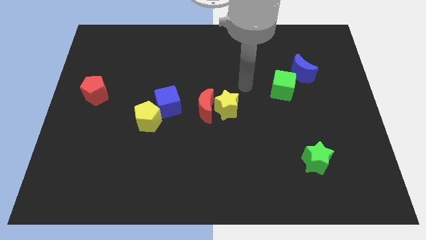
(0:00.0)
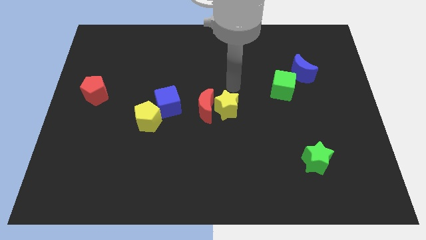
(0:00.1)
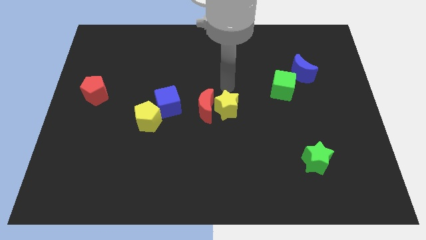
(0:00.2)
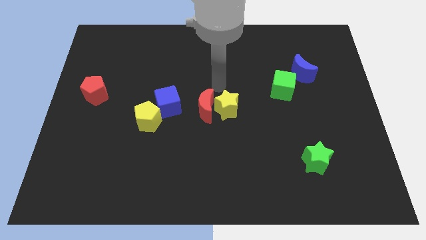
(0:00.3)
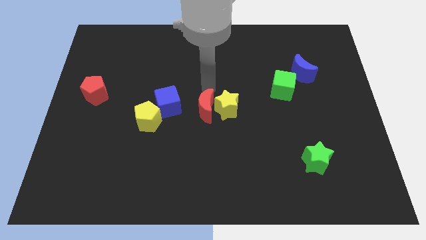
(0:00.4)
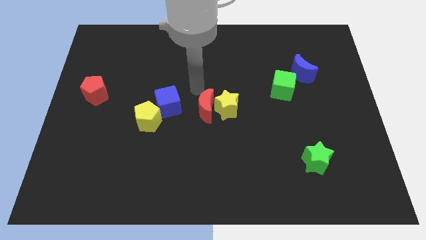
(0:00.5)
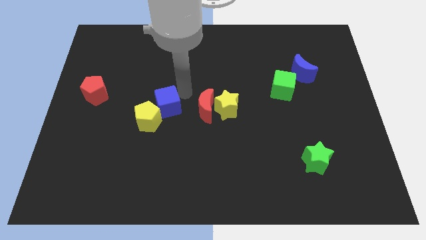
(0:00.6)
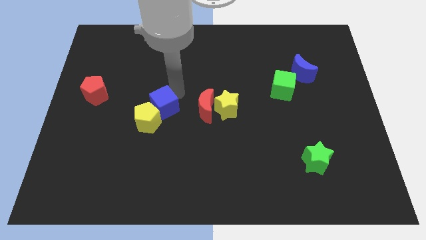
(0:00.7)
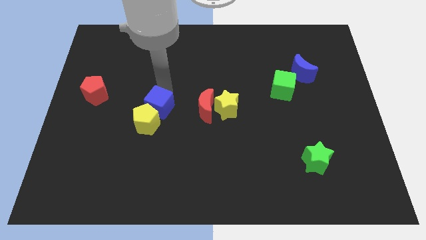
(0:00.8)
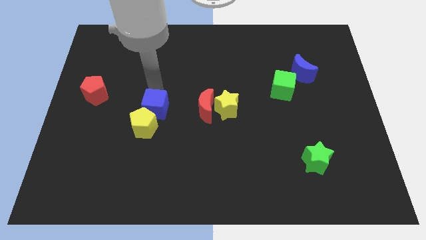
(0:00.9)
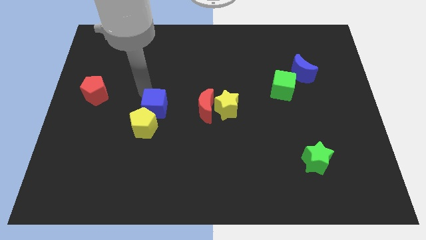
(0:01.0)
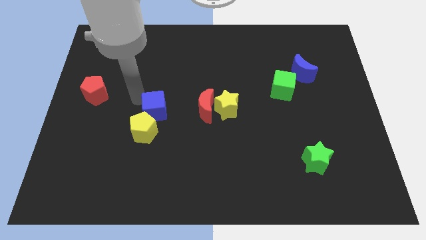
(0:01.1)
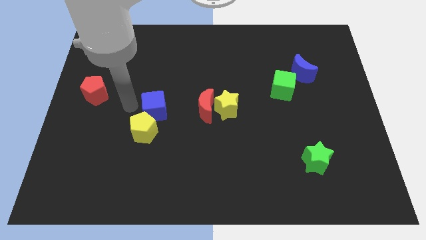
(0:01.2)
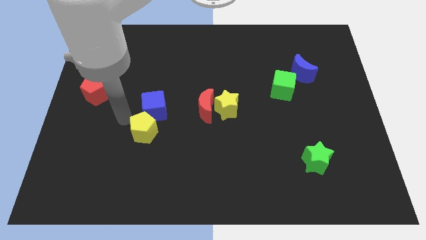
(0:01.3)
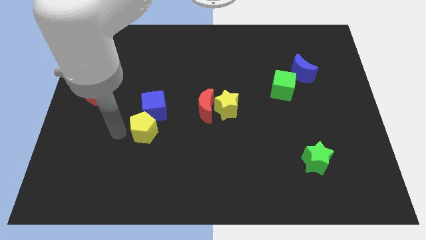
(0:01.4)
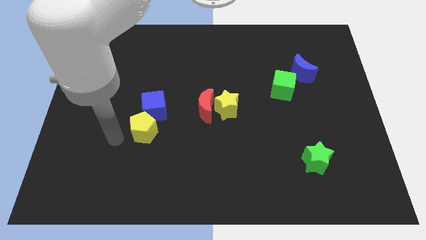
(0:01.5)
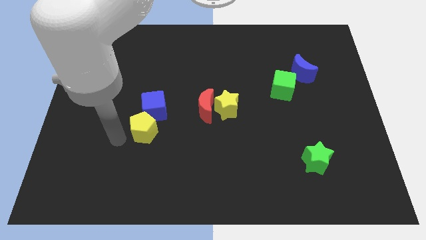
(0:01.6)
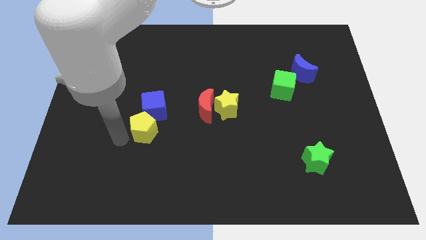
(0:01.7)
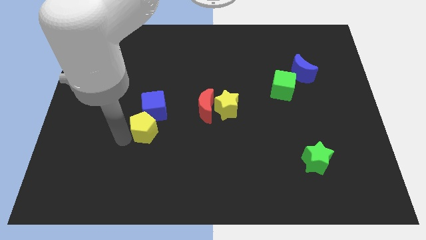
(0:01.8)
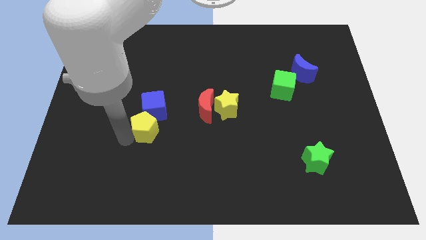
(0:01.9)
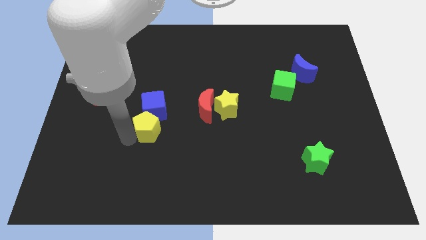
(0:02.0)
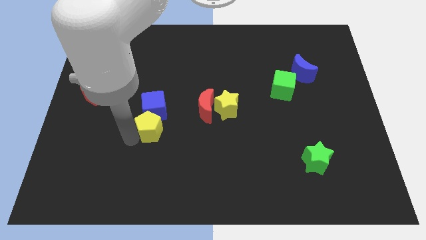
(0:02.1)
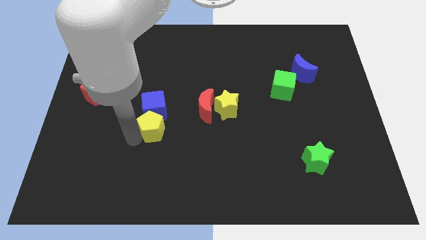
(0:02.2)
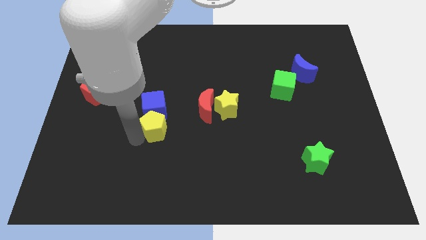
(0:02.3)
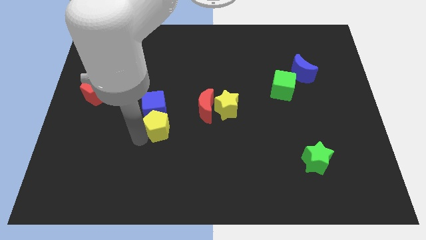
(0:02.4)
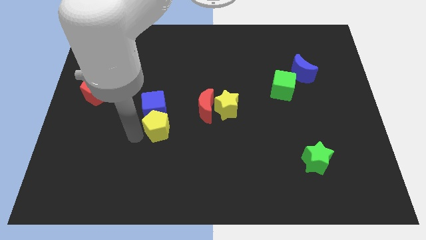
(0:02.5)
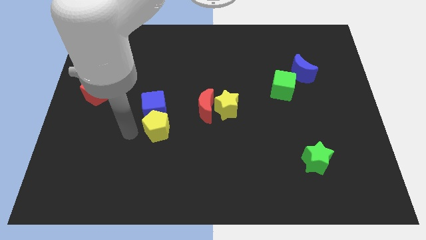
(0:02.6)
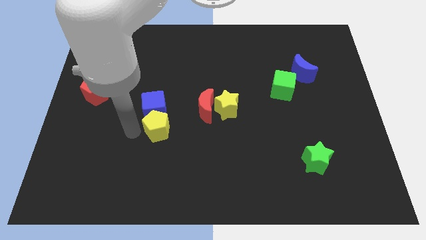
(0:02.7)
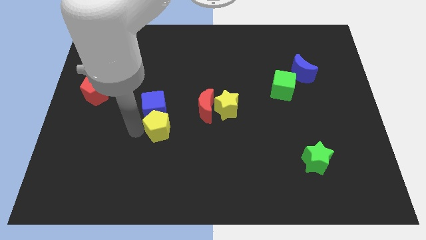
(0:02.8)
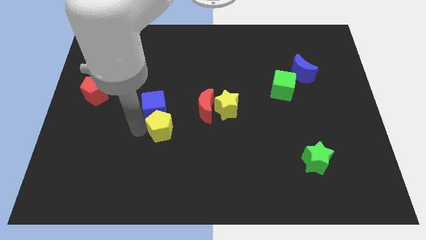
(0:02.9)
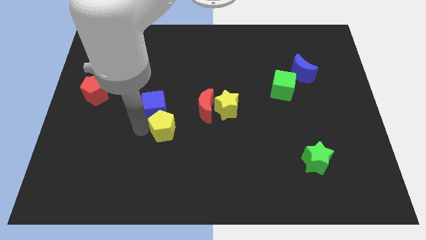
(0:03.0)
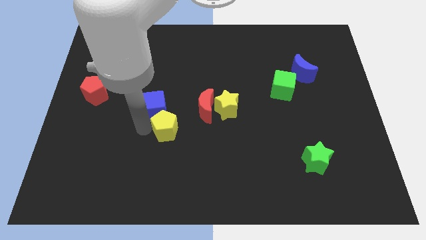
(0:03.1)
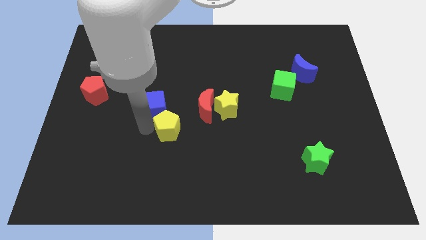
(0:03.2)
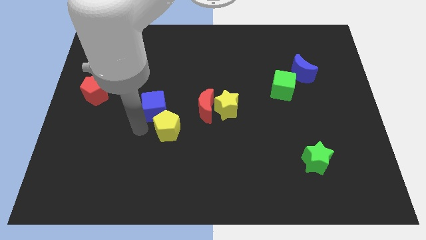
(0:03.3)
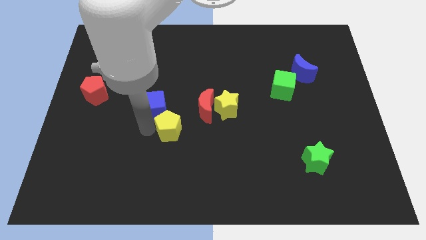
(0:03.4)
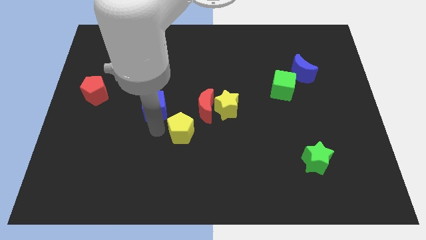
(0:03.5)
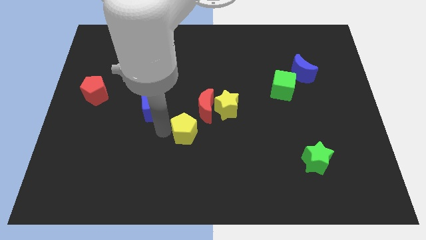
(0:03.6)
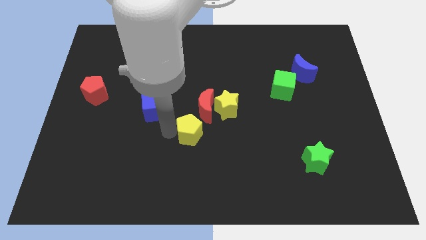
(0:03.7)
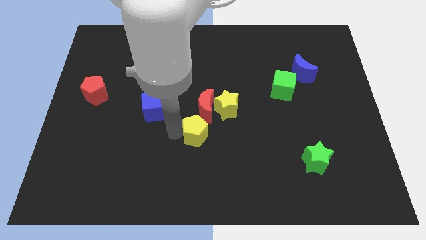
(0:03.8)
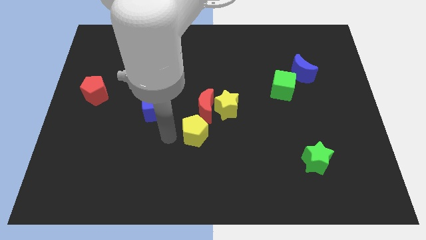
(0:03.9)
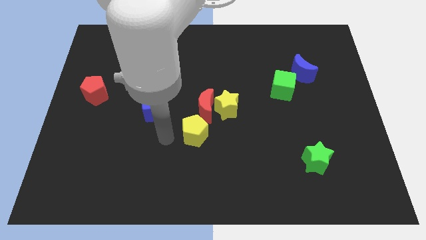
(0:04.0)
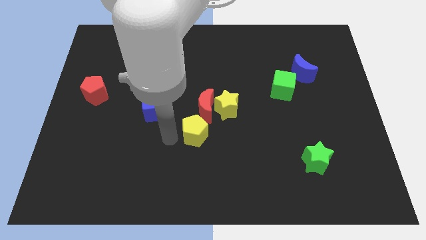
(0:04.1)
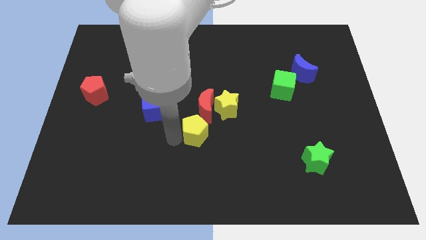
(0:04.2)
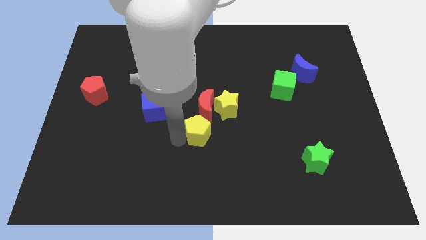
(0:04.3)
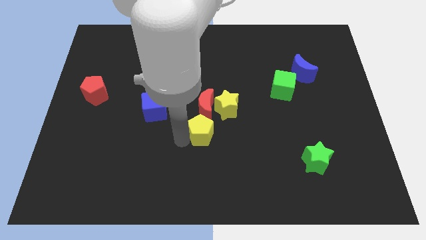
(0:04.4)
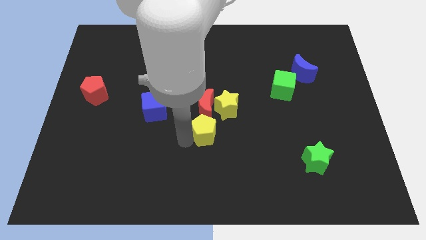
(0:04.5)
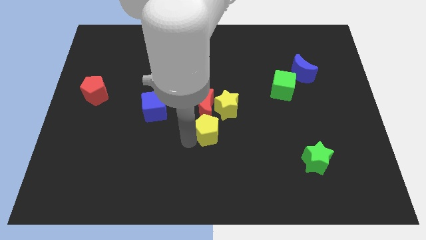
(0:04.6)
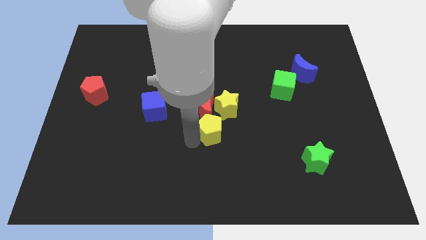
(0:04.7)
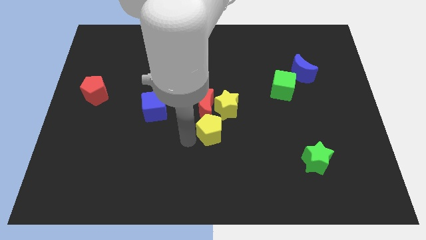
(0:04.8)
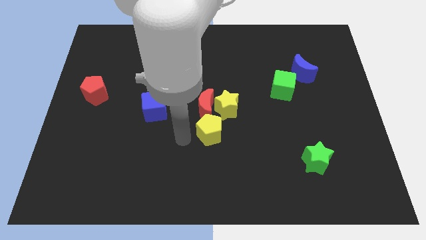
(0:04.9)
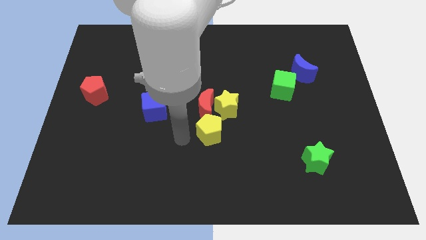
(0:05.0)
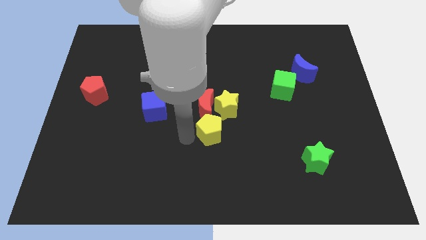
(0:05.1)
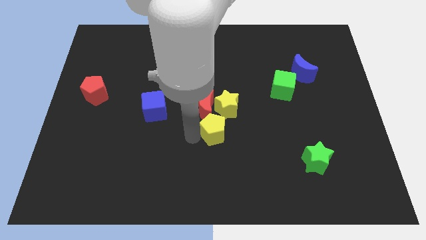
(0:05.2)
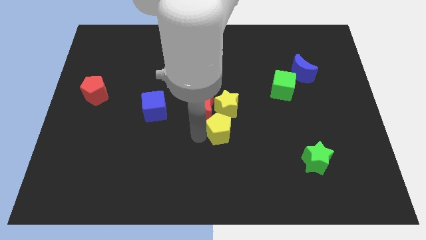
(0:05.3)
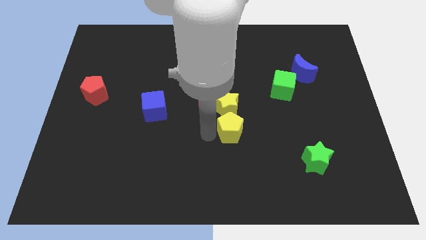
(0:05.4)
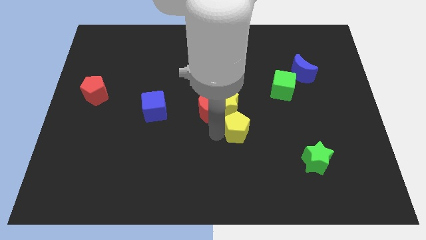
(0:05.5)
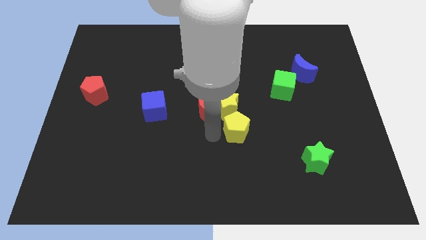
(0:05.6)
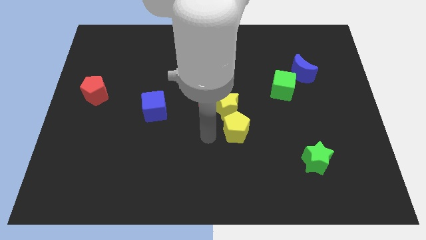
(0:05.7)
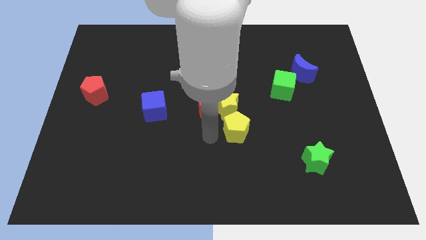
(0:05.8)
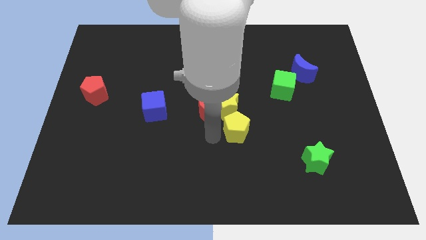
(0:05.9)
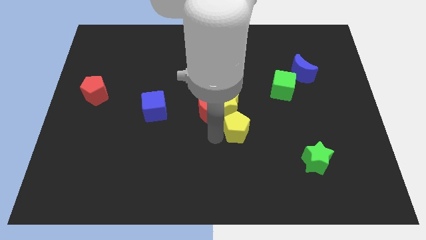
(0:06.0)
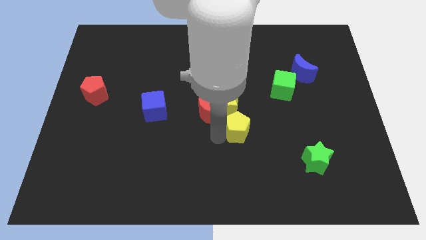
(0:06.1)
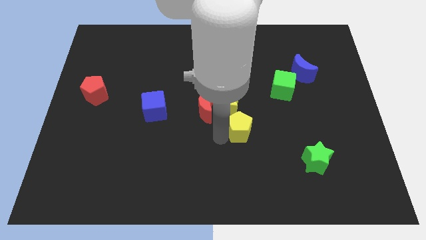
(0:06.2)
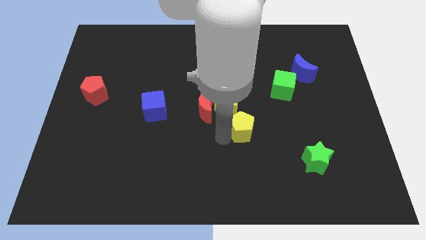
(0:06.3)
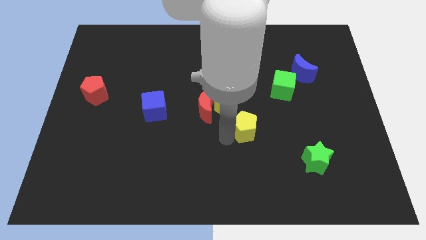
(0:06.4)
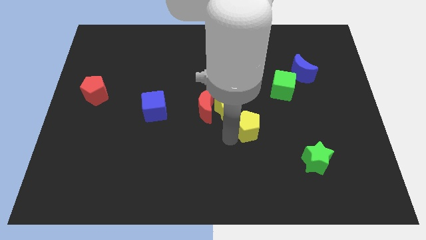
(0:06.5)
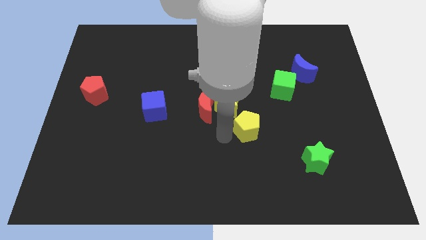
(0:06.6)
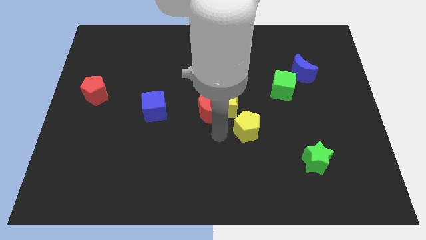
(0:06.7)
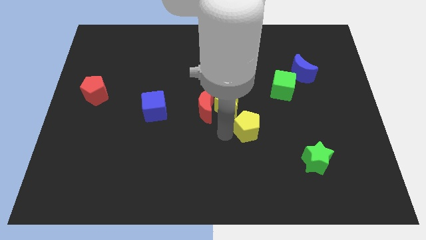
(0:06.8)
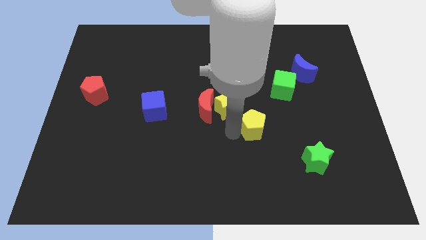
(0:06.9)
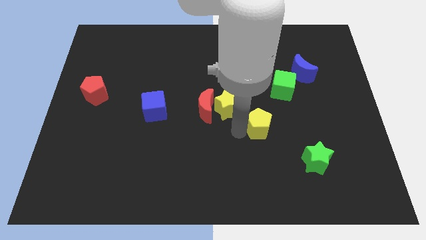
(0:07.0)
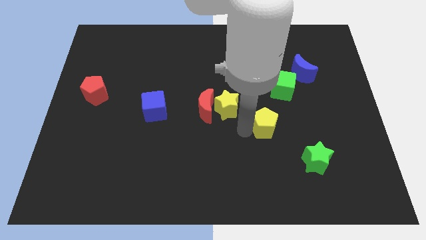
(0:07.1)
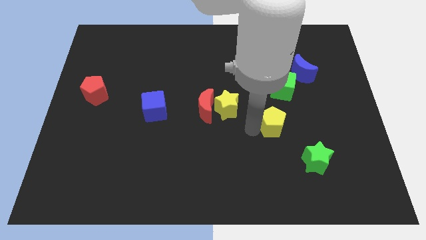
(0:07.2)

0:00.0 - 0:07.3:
put the yellow pentagon below the green cube
